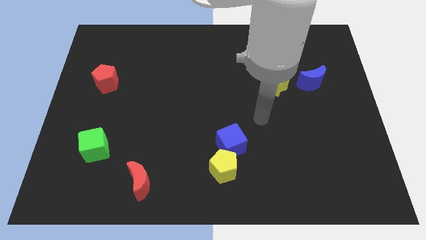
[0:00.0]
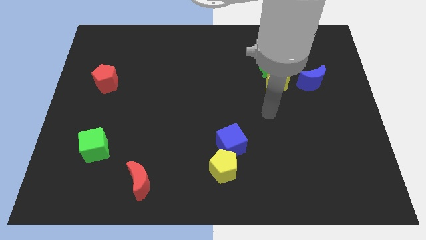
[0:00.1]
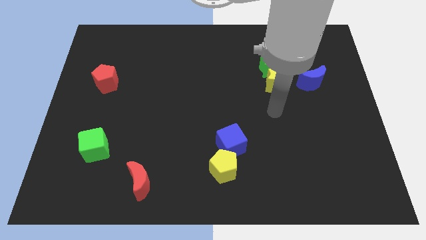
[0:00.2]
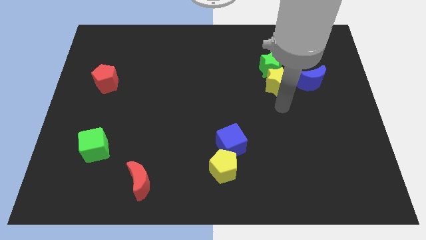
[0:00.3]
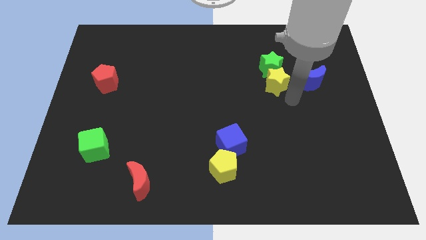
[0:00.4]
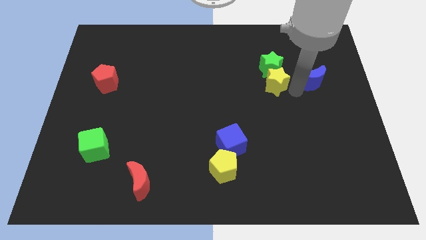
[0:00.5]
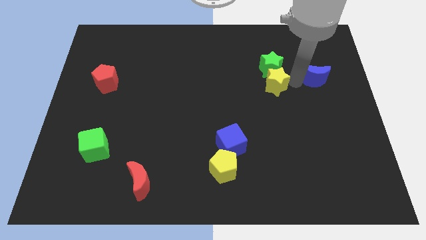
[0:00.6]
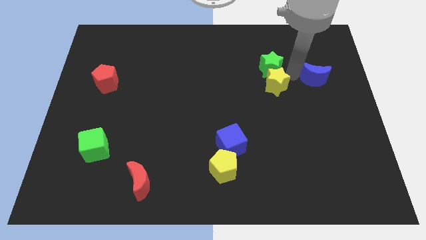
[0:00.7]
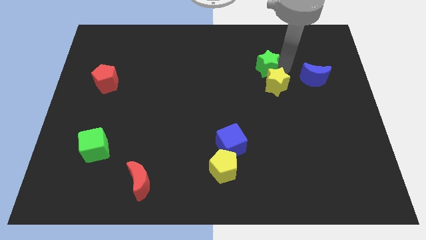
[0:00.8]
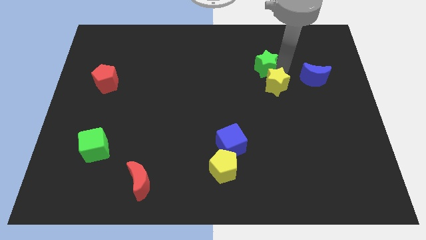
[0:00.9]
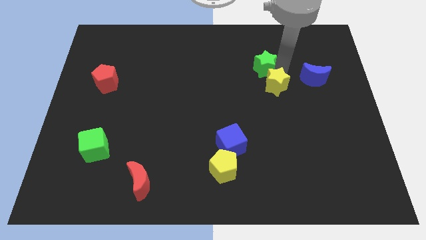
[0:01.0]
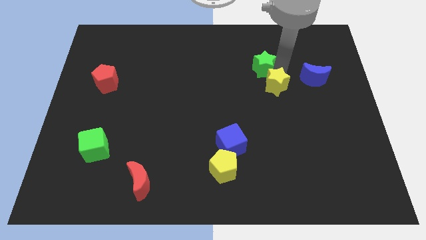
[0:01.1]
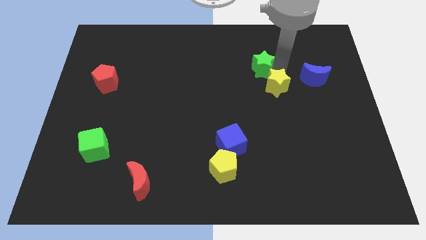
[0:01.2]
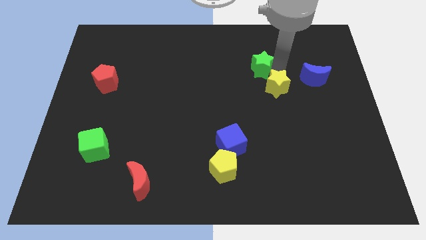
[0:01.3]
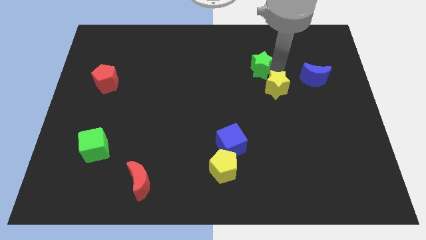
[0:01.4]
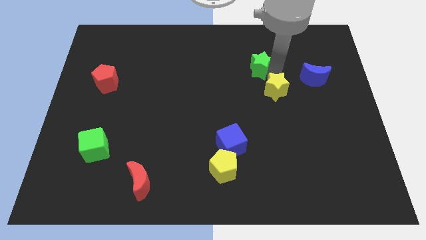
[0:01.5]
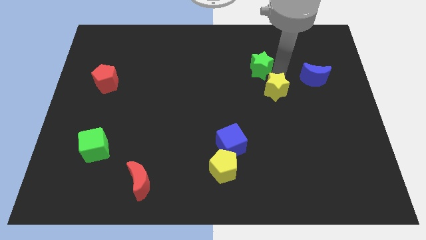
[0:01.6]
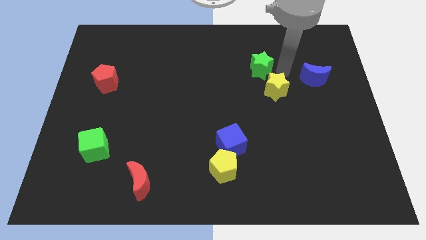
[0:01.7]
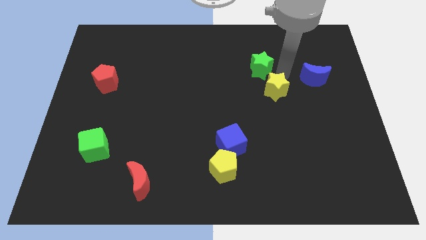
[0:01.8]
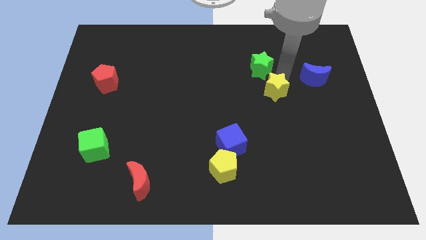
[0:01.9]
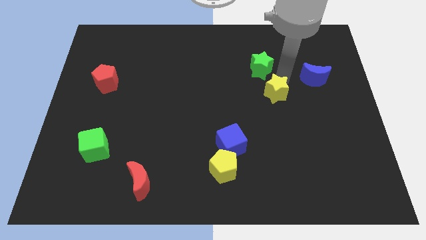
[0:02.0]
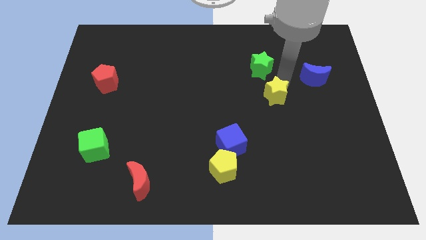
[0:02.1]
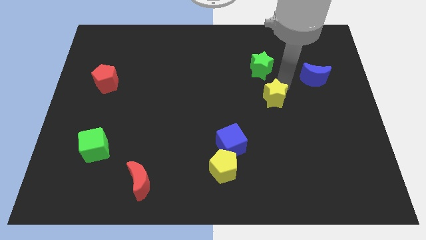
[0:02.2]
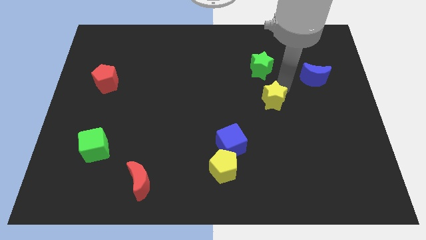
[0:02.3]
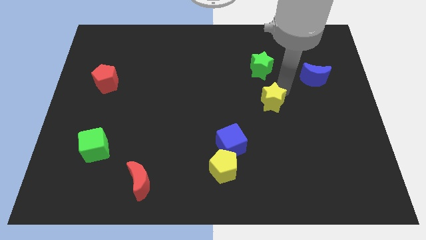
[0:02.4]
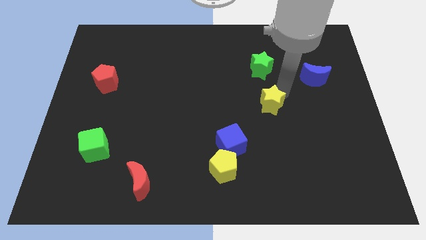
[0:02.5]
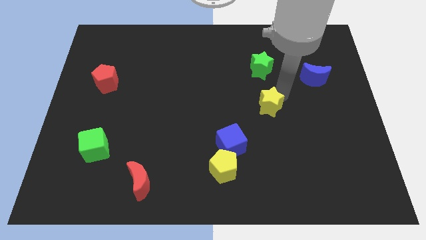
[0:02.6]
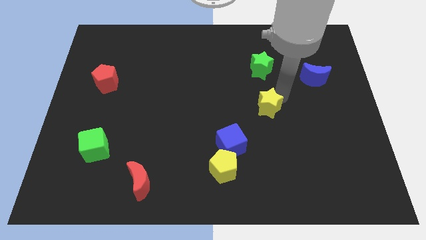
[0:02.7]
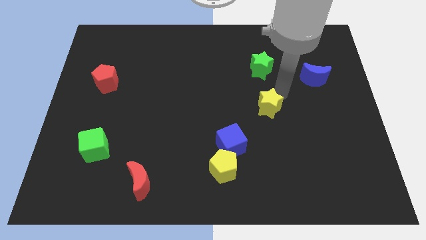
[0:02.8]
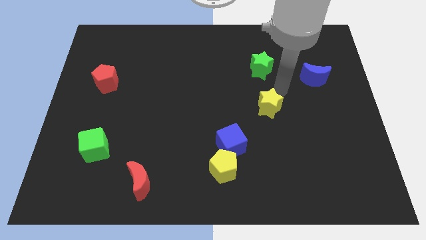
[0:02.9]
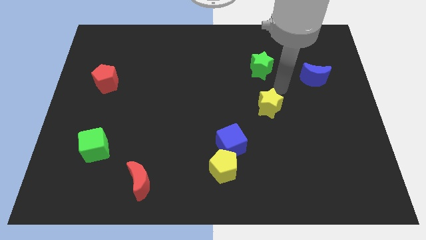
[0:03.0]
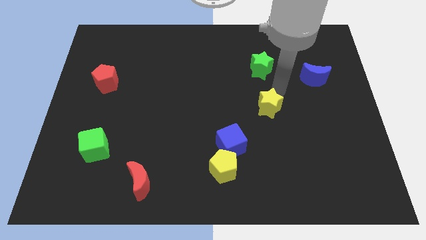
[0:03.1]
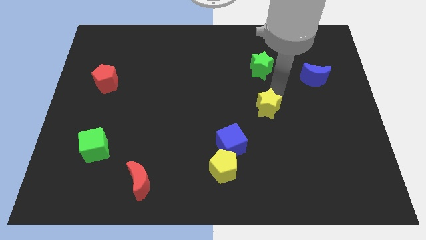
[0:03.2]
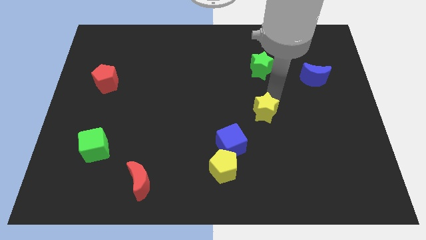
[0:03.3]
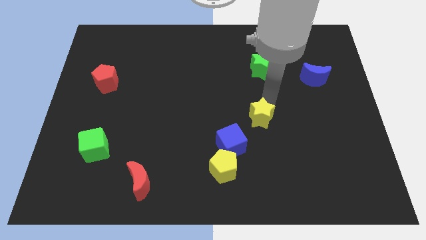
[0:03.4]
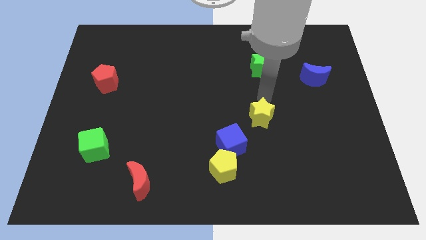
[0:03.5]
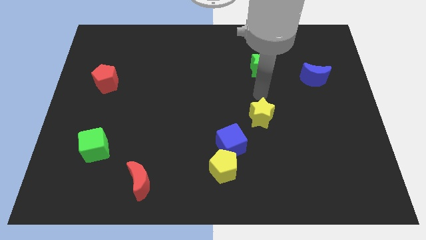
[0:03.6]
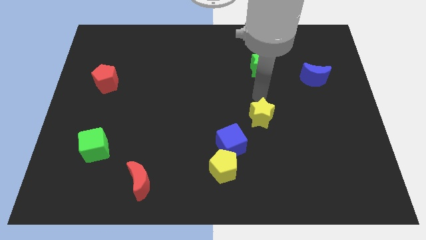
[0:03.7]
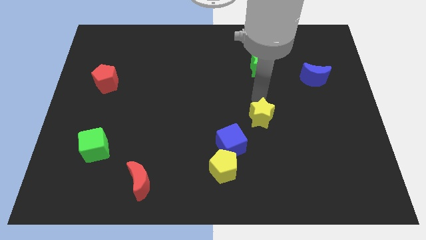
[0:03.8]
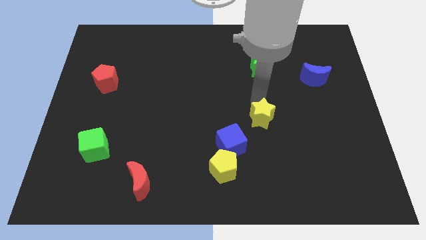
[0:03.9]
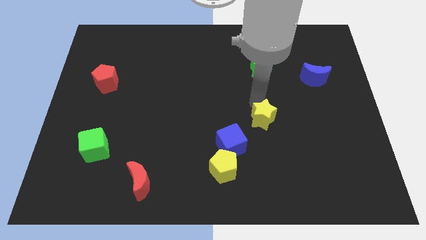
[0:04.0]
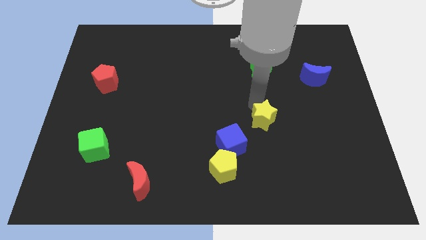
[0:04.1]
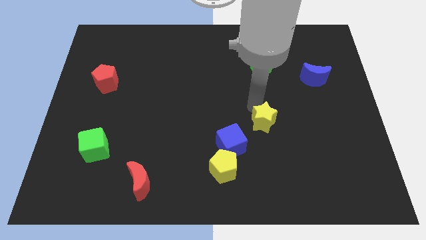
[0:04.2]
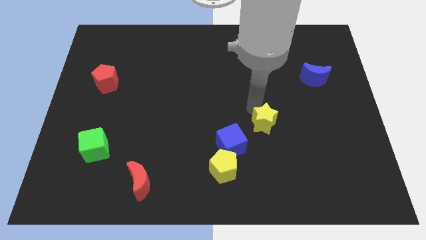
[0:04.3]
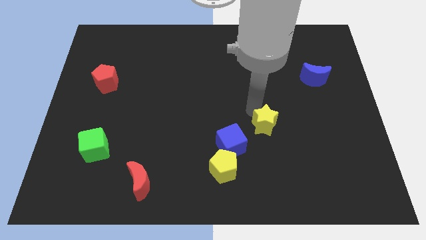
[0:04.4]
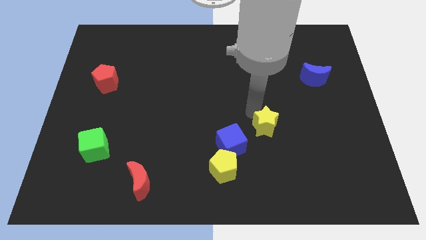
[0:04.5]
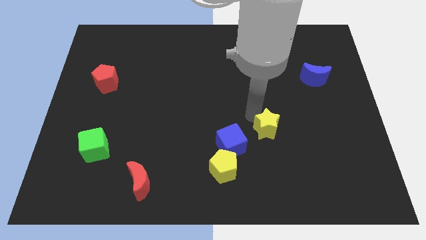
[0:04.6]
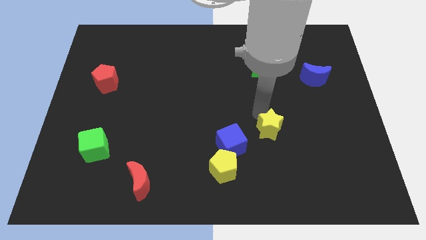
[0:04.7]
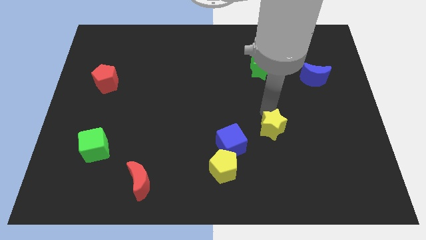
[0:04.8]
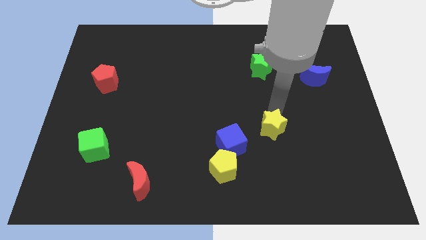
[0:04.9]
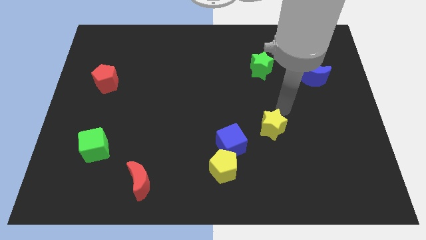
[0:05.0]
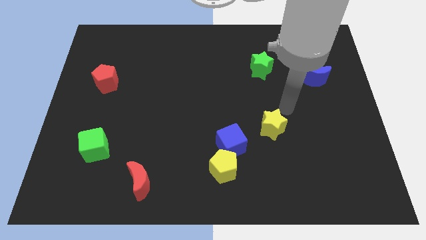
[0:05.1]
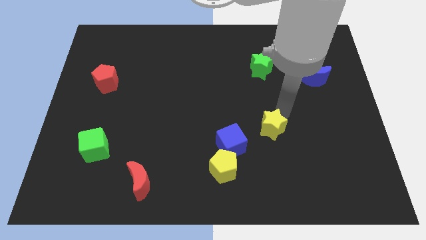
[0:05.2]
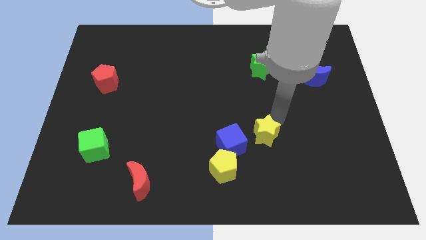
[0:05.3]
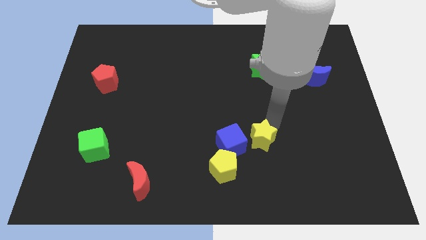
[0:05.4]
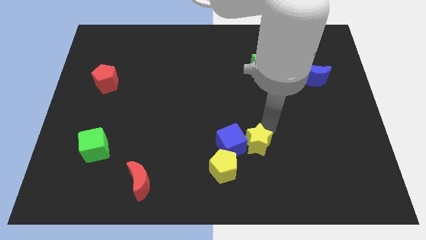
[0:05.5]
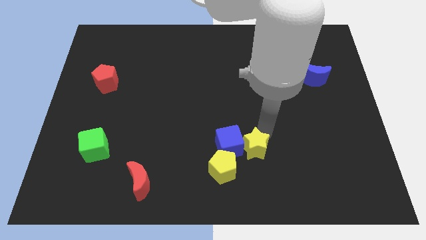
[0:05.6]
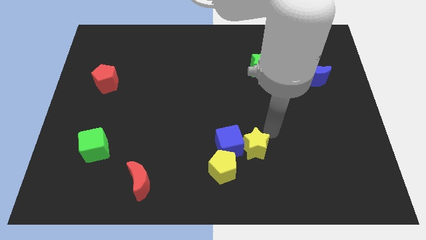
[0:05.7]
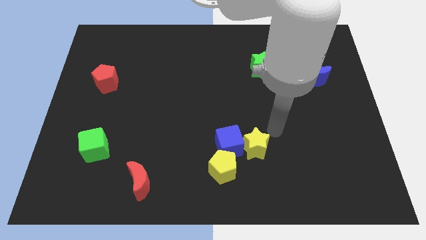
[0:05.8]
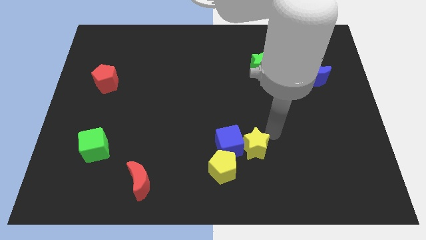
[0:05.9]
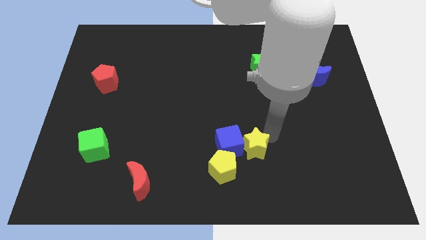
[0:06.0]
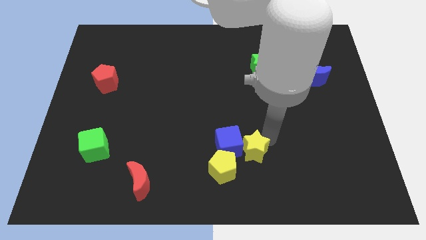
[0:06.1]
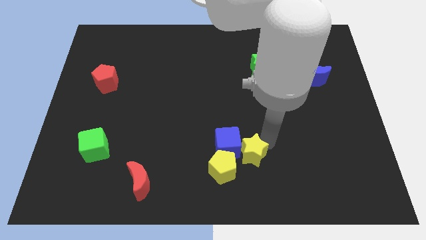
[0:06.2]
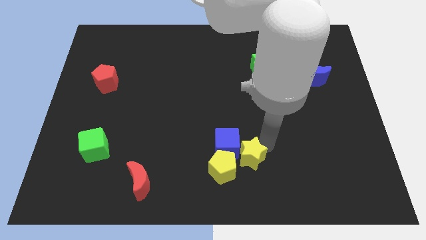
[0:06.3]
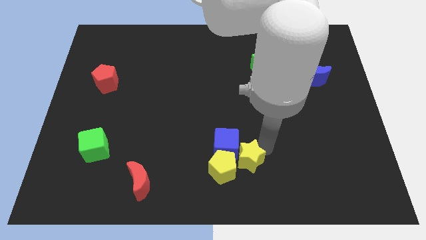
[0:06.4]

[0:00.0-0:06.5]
put the yellow star to the yellow pentagon

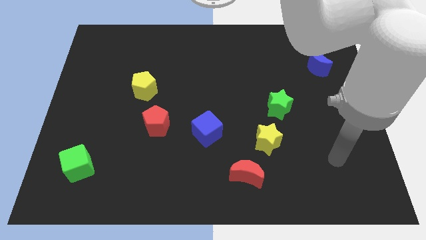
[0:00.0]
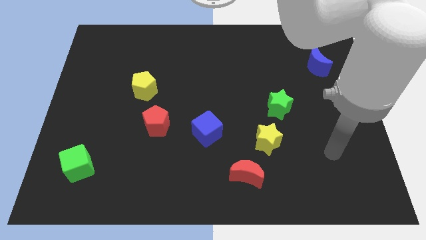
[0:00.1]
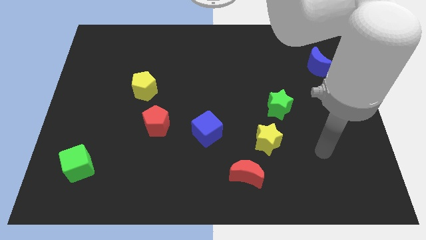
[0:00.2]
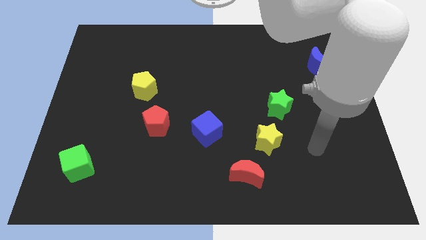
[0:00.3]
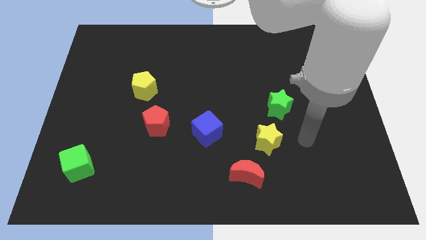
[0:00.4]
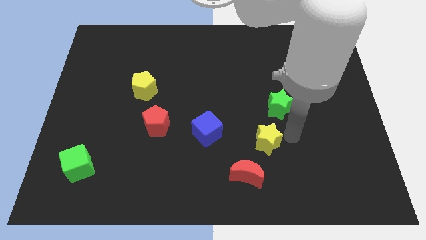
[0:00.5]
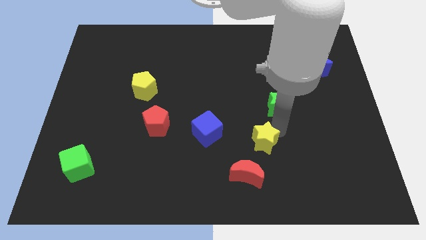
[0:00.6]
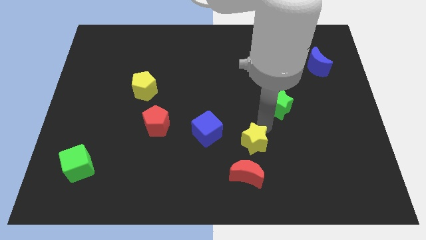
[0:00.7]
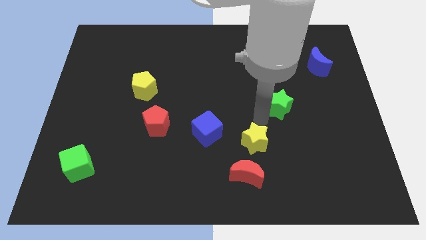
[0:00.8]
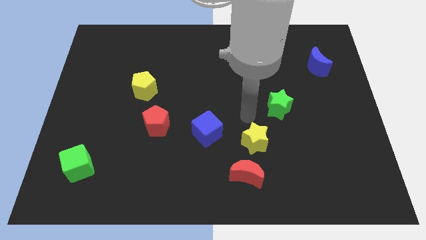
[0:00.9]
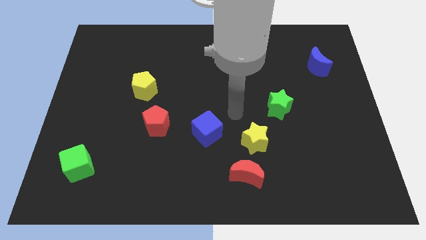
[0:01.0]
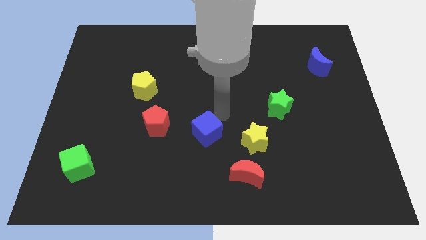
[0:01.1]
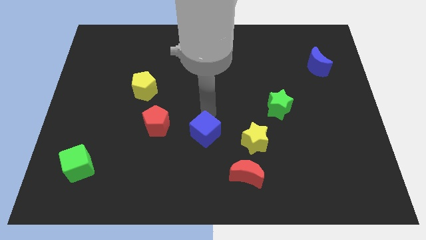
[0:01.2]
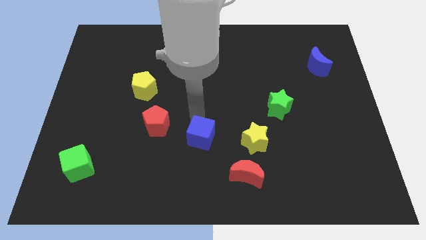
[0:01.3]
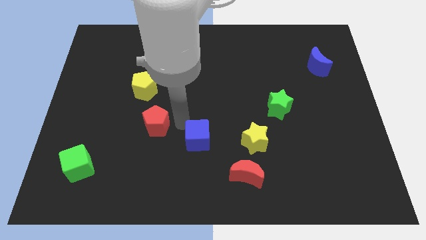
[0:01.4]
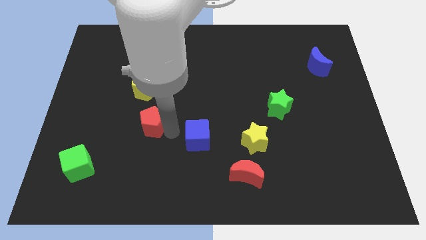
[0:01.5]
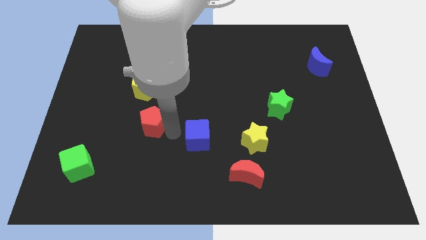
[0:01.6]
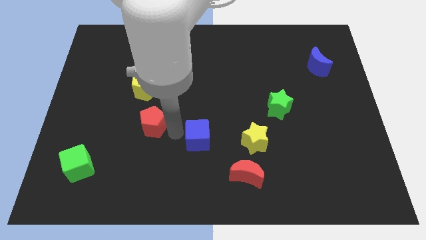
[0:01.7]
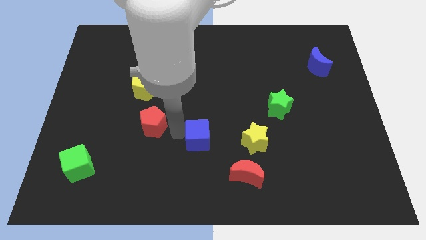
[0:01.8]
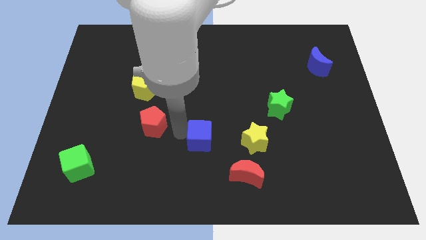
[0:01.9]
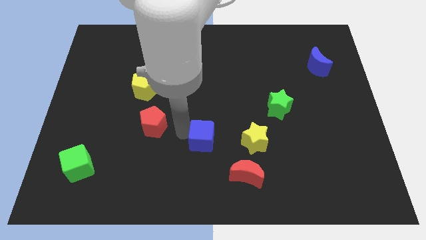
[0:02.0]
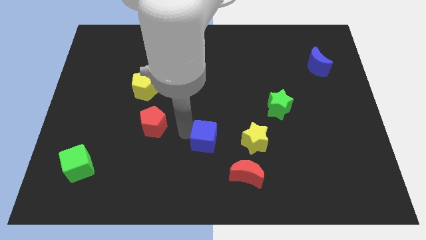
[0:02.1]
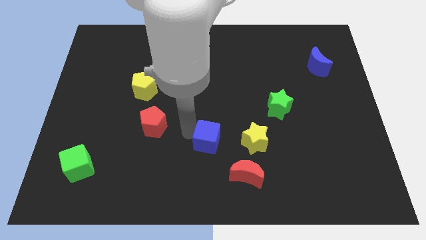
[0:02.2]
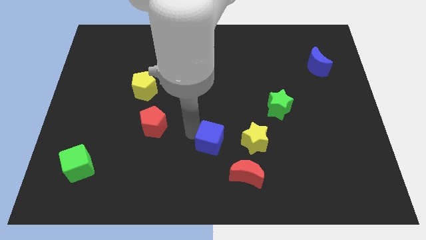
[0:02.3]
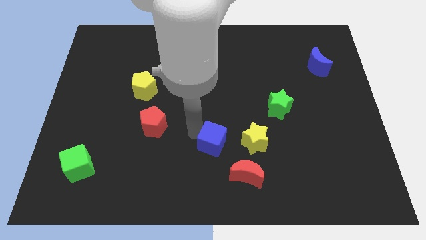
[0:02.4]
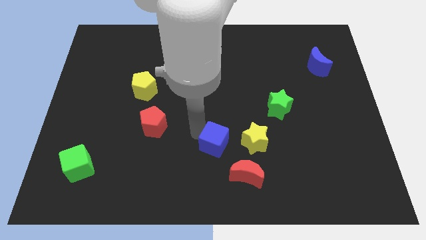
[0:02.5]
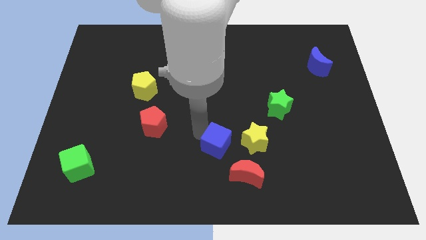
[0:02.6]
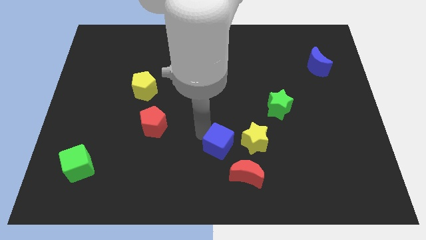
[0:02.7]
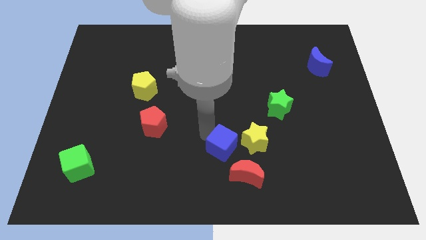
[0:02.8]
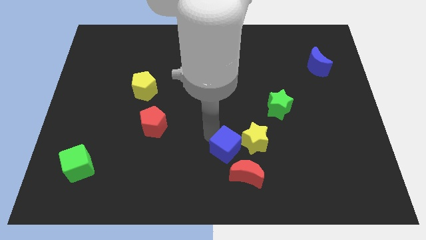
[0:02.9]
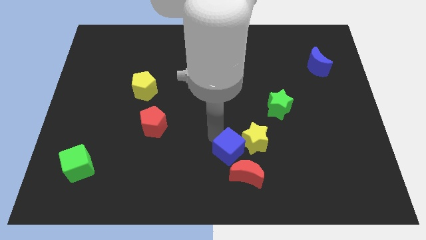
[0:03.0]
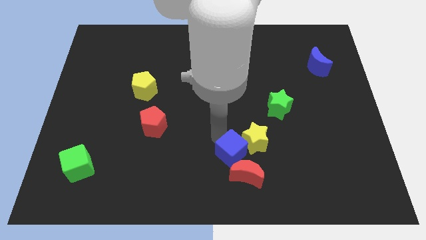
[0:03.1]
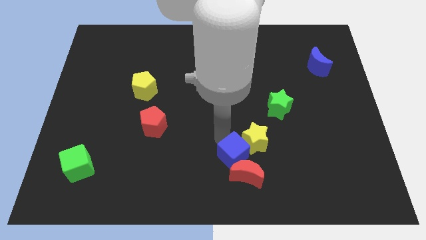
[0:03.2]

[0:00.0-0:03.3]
move the blue cube to the red moon
